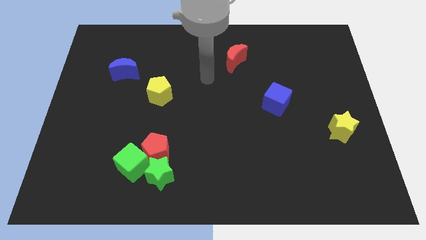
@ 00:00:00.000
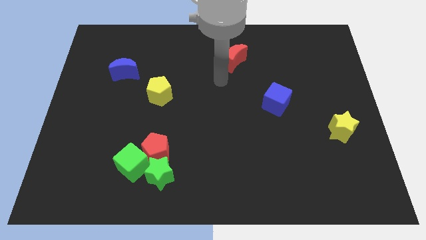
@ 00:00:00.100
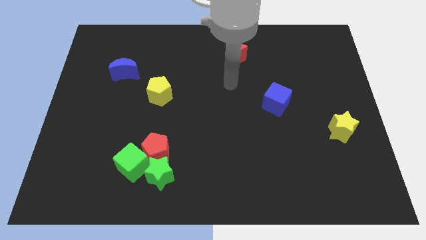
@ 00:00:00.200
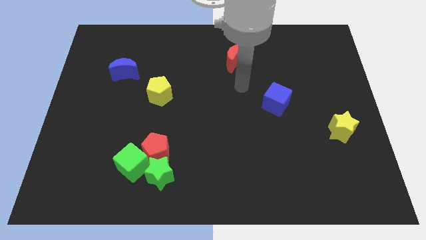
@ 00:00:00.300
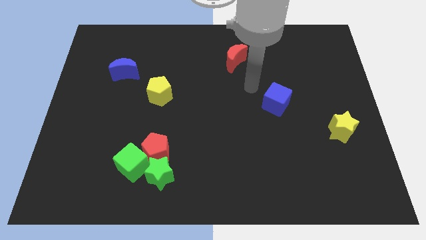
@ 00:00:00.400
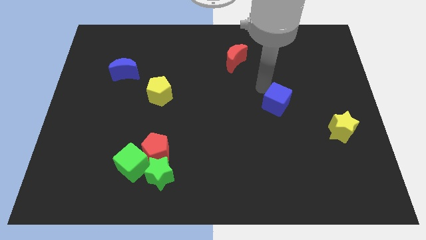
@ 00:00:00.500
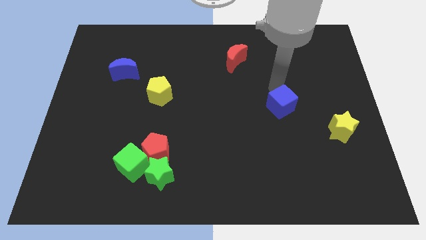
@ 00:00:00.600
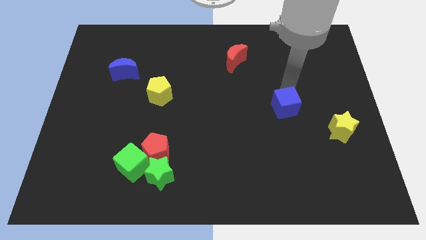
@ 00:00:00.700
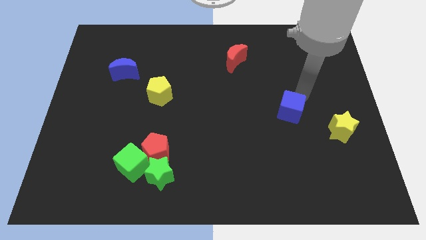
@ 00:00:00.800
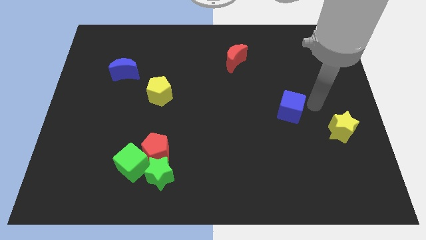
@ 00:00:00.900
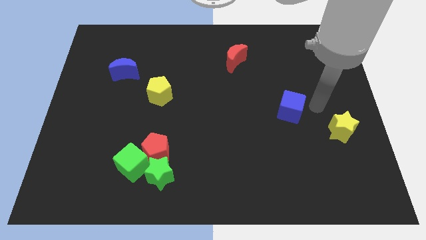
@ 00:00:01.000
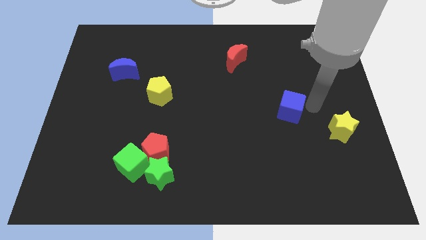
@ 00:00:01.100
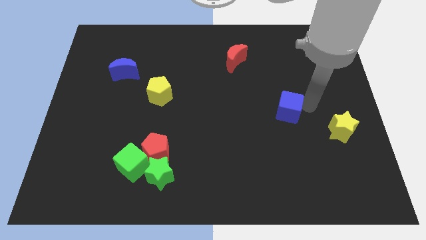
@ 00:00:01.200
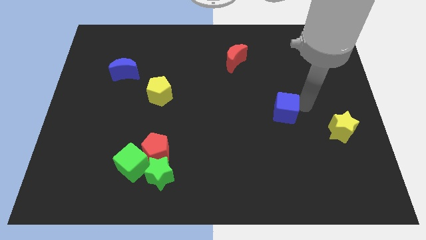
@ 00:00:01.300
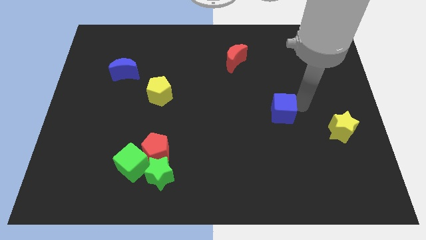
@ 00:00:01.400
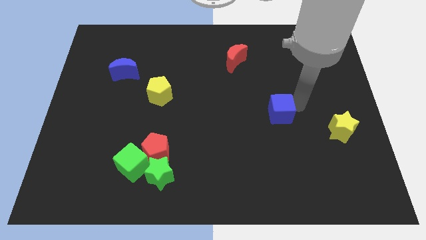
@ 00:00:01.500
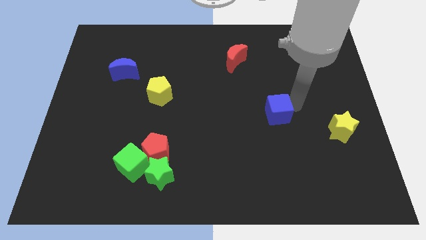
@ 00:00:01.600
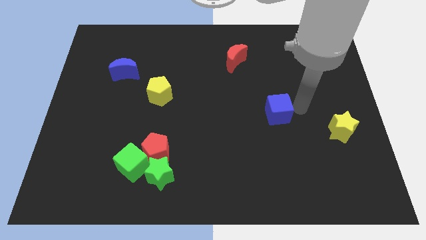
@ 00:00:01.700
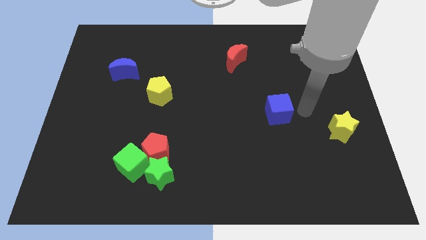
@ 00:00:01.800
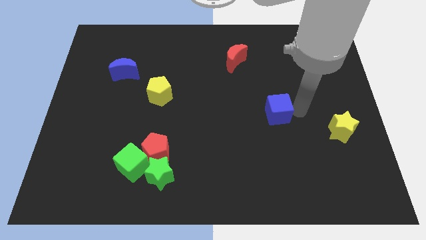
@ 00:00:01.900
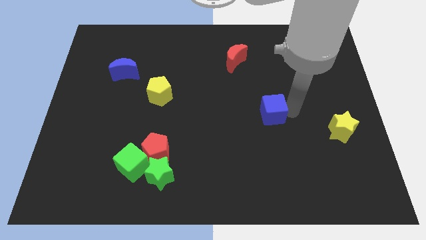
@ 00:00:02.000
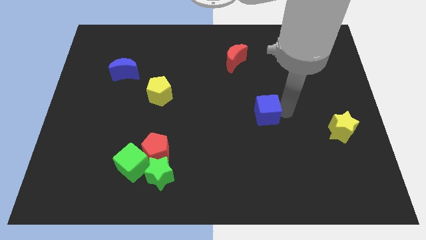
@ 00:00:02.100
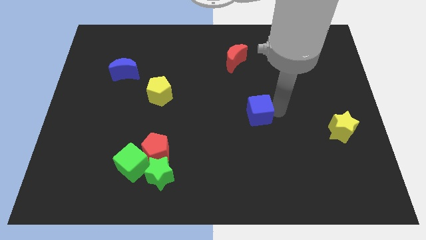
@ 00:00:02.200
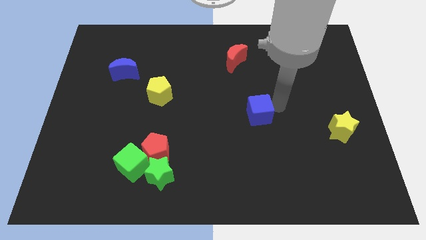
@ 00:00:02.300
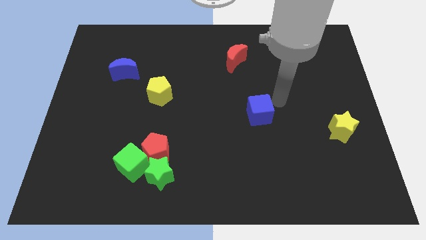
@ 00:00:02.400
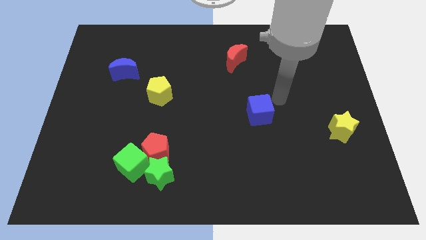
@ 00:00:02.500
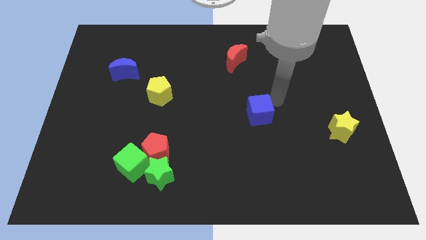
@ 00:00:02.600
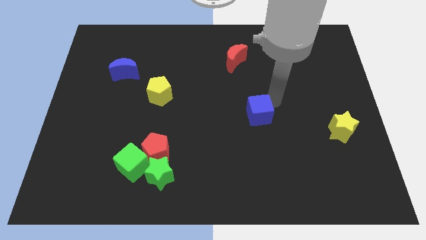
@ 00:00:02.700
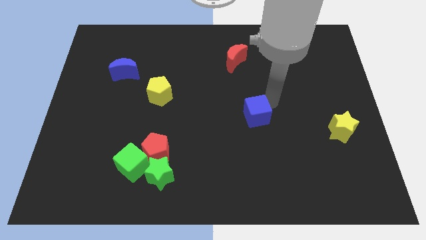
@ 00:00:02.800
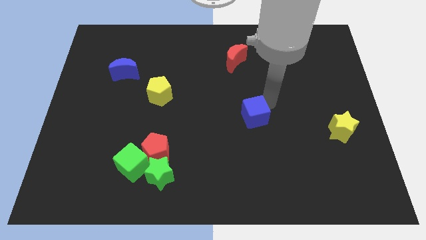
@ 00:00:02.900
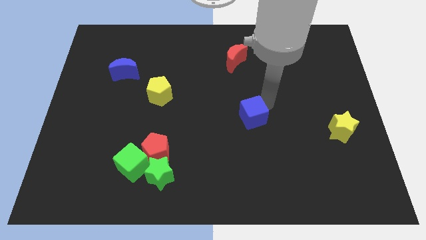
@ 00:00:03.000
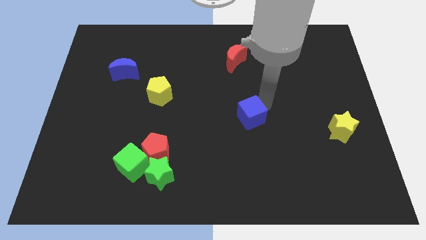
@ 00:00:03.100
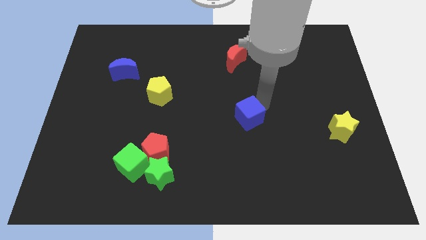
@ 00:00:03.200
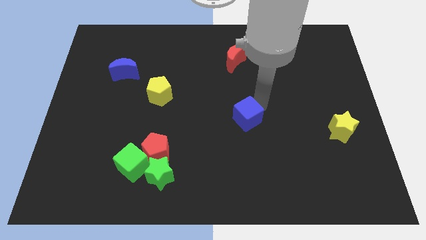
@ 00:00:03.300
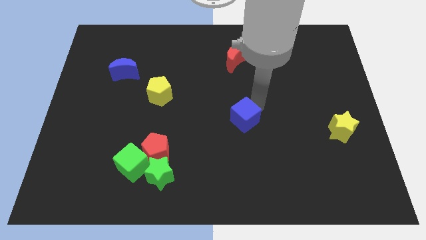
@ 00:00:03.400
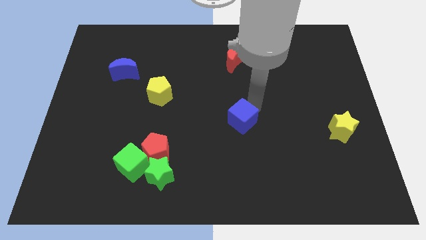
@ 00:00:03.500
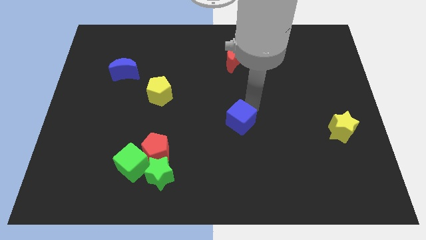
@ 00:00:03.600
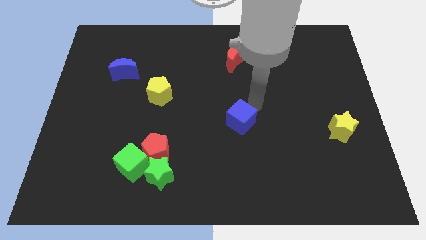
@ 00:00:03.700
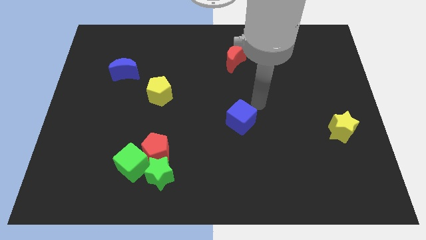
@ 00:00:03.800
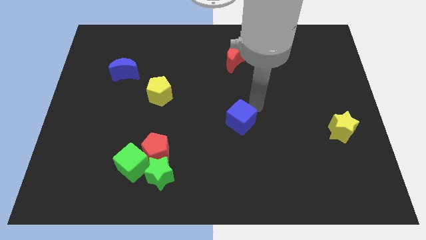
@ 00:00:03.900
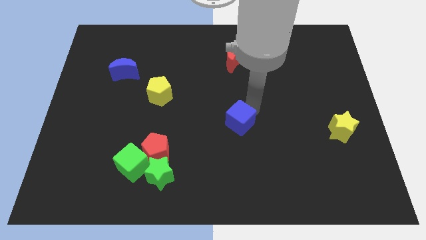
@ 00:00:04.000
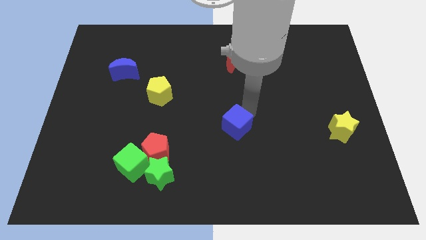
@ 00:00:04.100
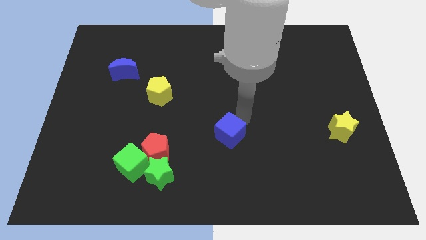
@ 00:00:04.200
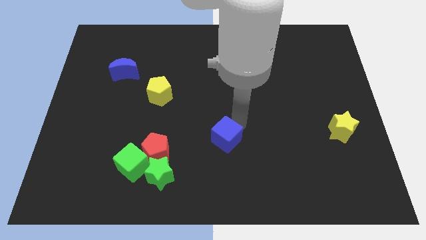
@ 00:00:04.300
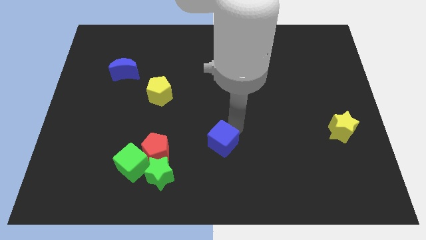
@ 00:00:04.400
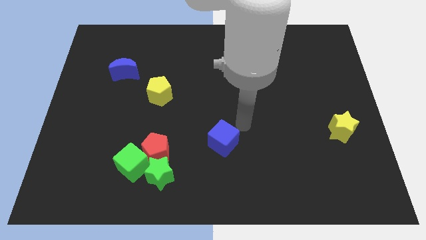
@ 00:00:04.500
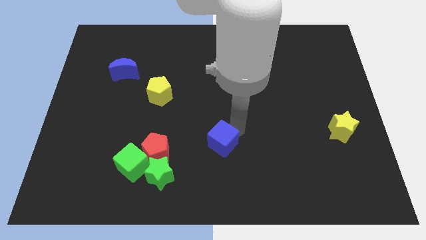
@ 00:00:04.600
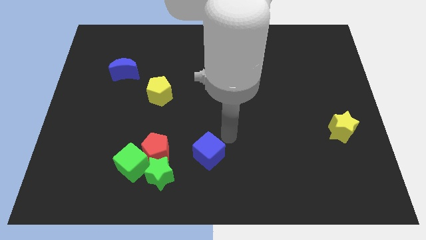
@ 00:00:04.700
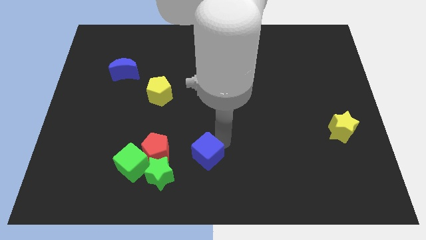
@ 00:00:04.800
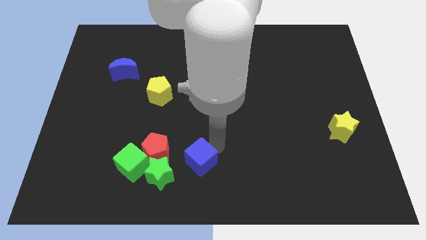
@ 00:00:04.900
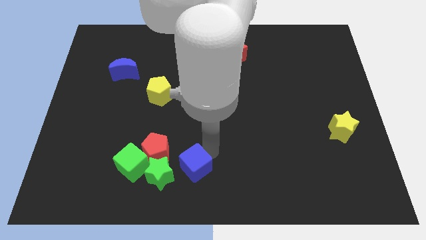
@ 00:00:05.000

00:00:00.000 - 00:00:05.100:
push the blue cube to the bottom right of the red pentagon
